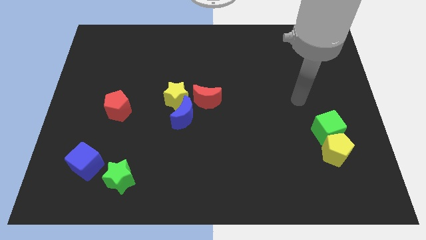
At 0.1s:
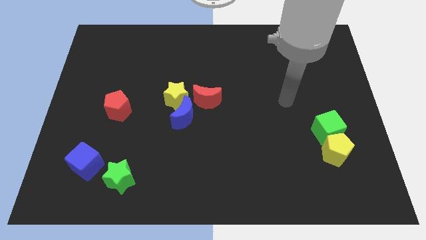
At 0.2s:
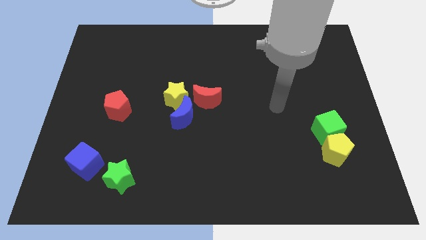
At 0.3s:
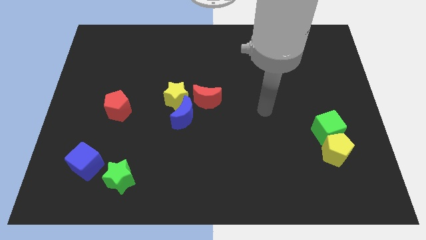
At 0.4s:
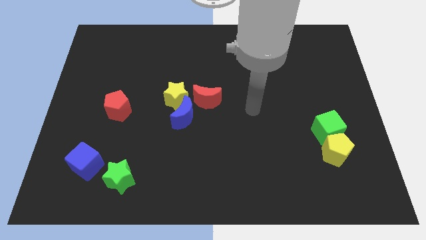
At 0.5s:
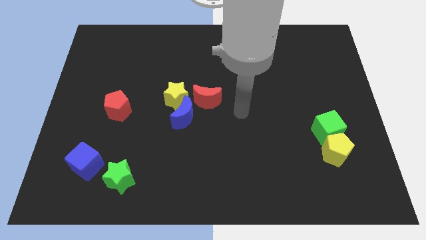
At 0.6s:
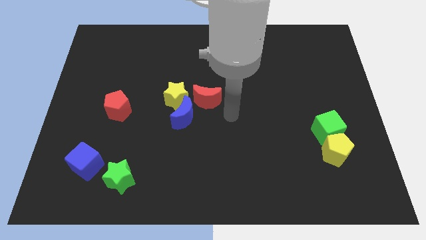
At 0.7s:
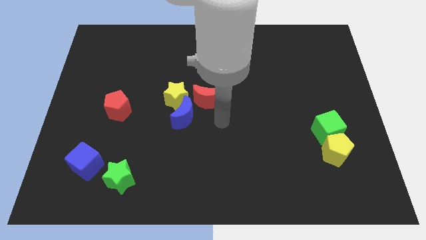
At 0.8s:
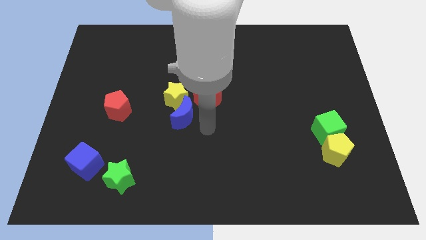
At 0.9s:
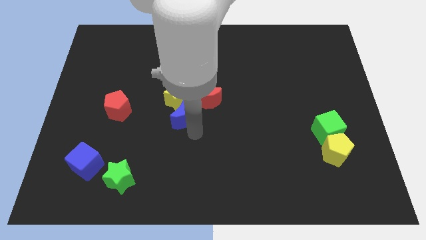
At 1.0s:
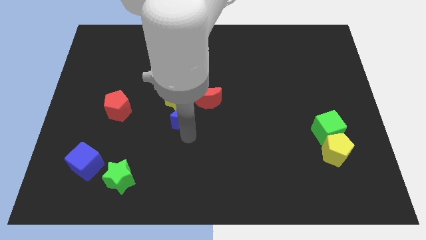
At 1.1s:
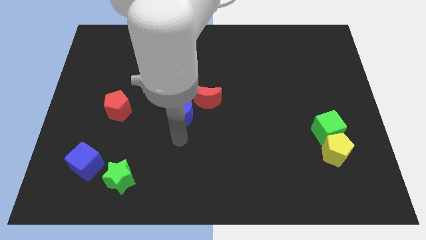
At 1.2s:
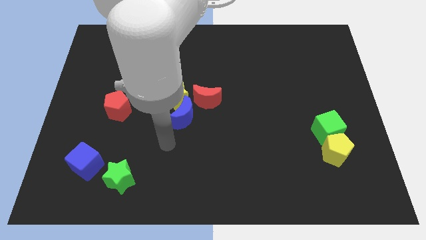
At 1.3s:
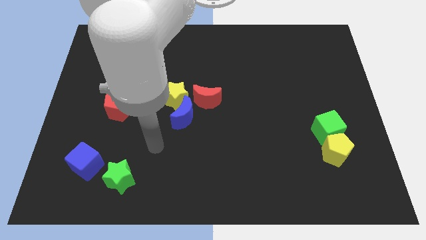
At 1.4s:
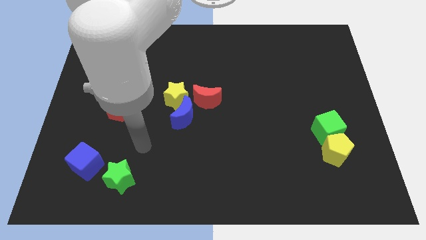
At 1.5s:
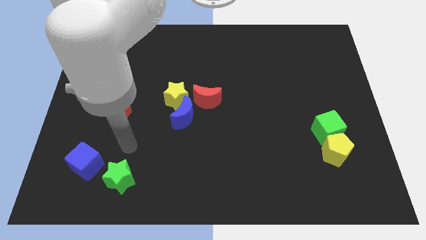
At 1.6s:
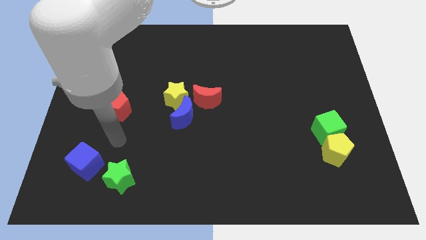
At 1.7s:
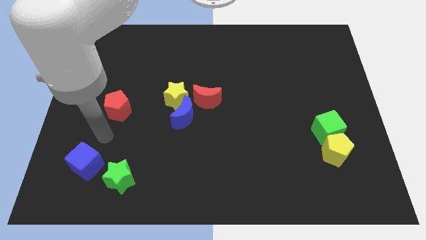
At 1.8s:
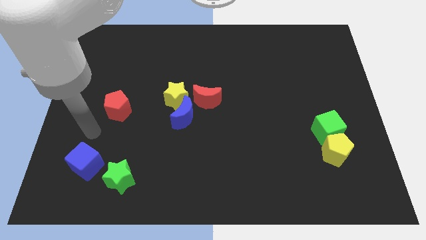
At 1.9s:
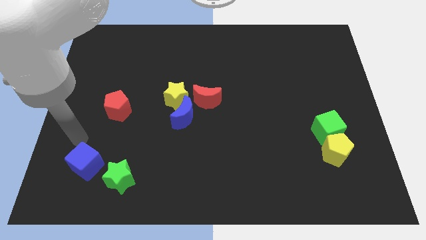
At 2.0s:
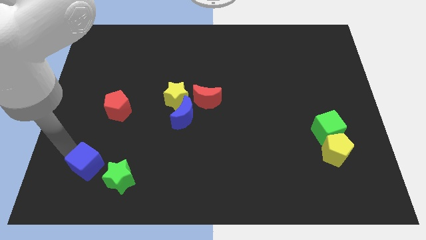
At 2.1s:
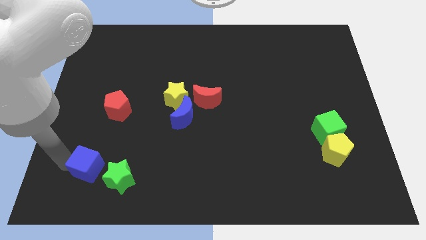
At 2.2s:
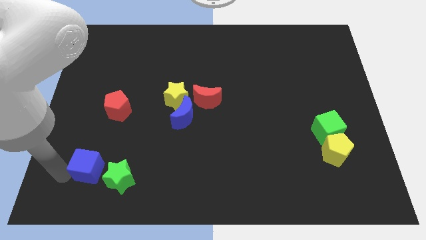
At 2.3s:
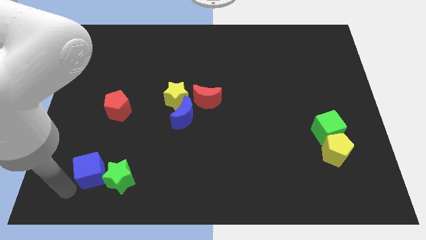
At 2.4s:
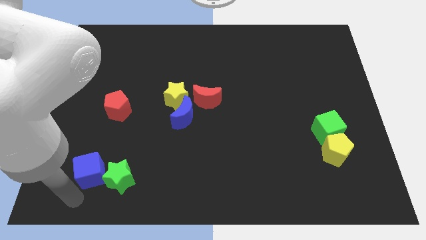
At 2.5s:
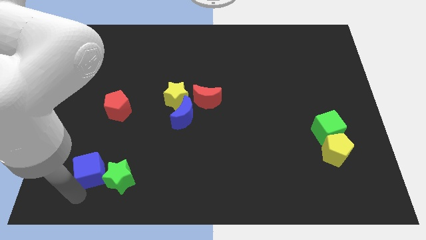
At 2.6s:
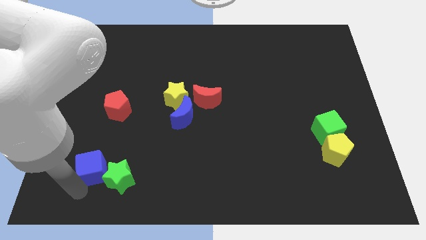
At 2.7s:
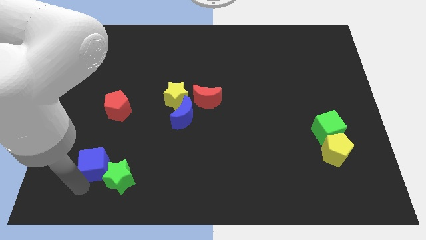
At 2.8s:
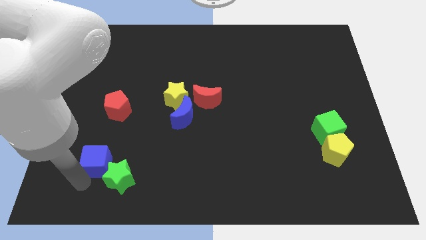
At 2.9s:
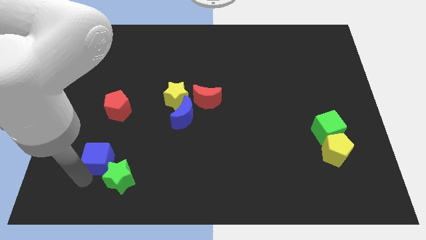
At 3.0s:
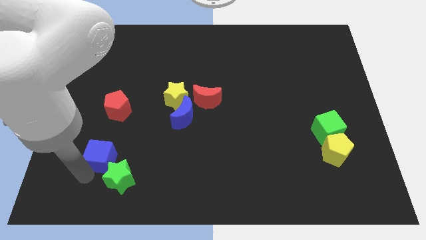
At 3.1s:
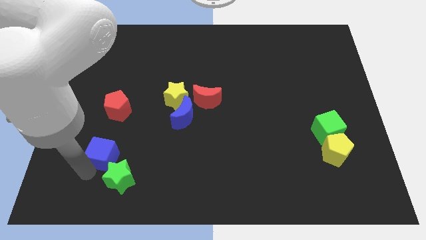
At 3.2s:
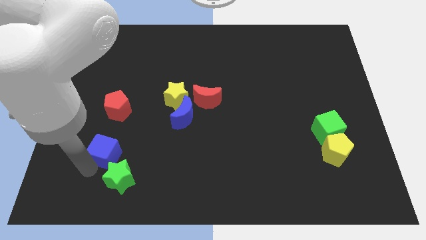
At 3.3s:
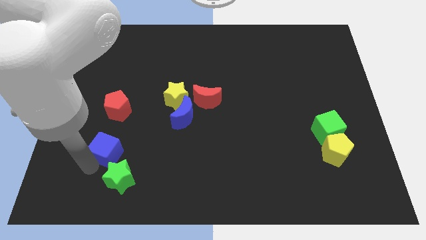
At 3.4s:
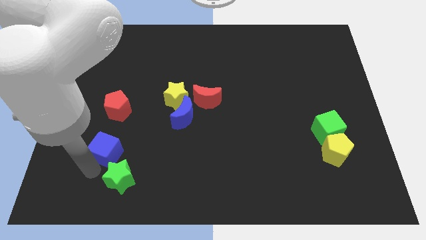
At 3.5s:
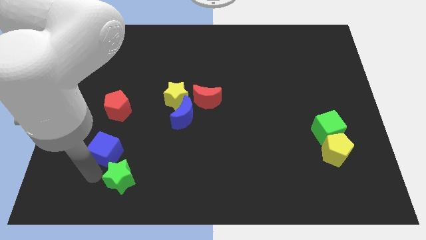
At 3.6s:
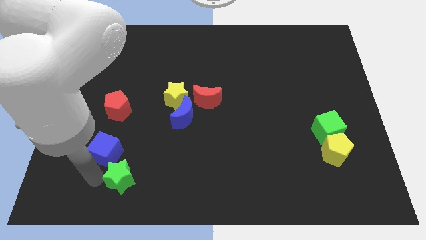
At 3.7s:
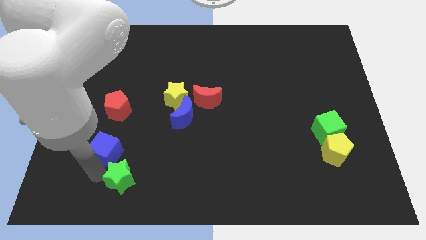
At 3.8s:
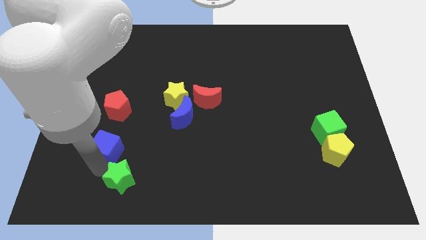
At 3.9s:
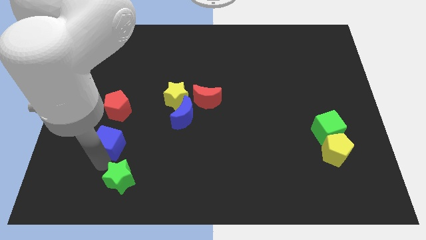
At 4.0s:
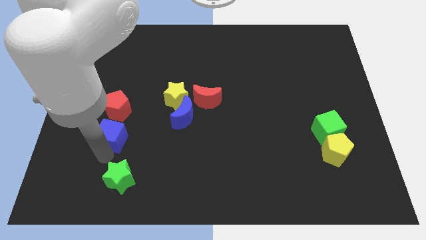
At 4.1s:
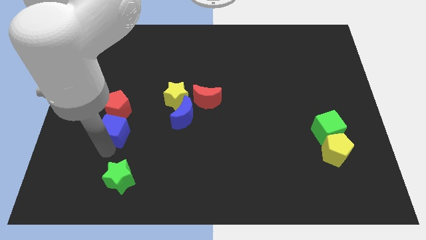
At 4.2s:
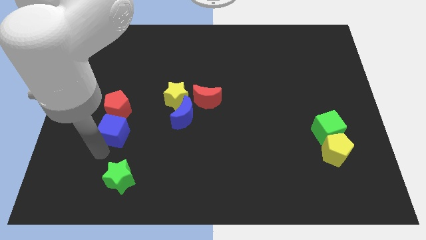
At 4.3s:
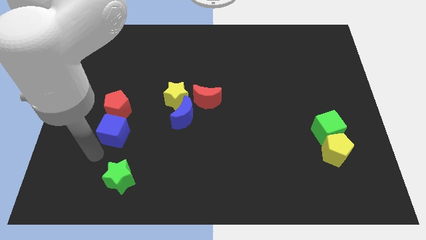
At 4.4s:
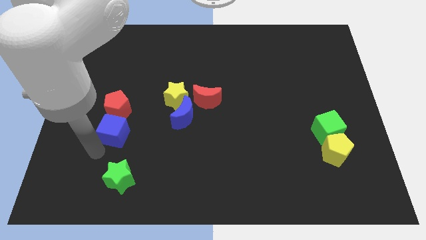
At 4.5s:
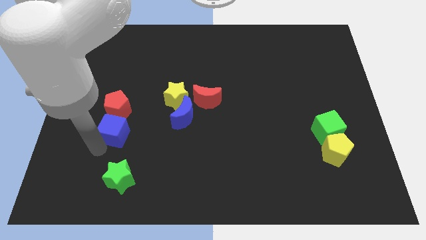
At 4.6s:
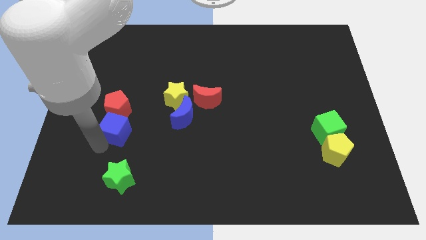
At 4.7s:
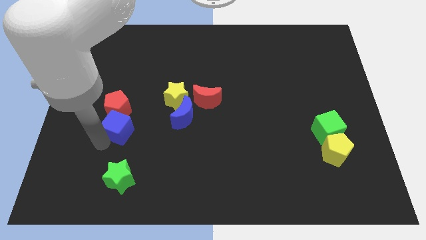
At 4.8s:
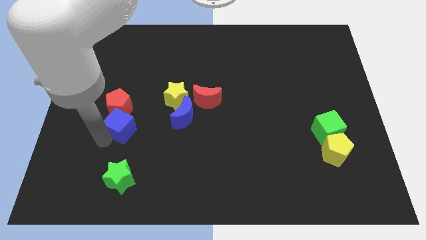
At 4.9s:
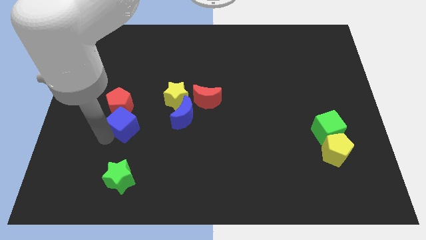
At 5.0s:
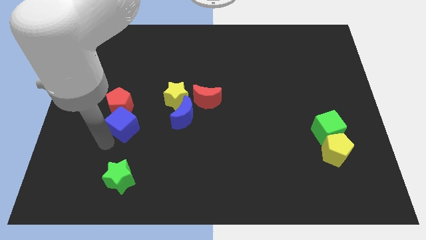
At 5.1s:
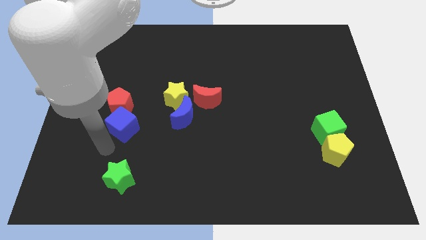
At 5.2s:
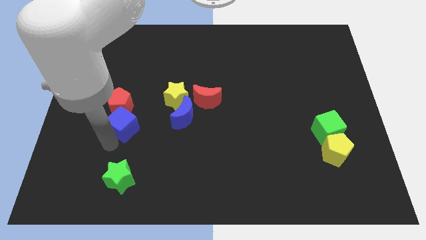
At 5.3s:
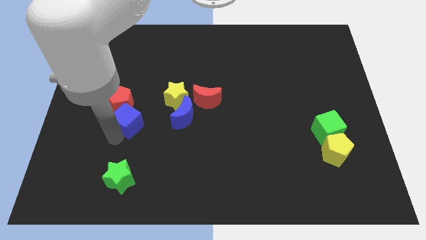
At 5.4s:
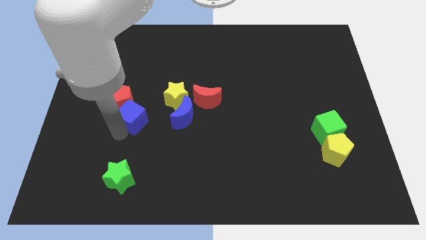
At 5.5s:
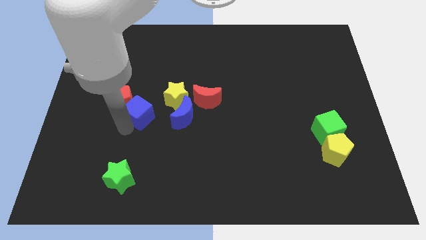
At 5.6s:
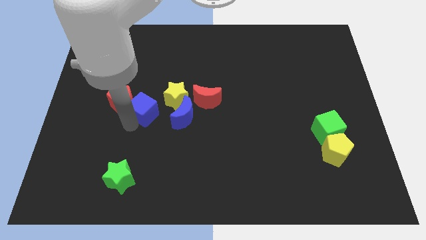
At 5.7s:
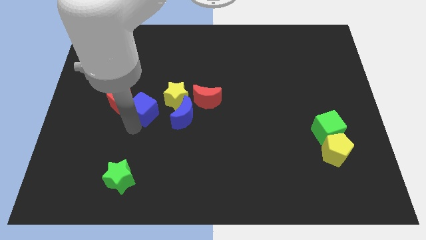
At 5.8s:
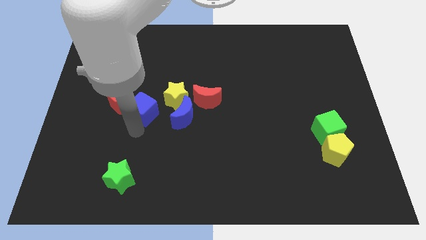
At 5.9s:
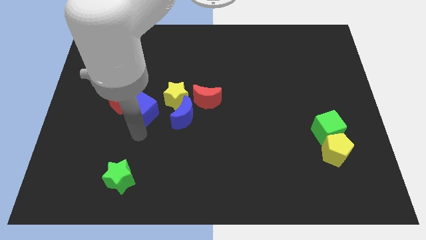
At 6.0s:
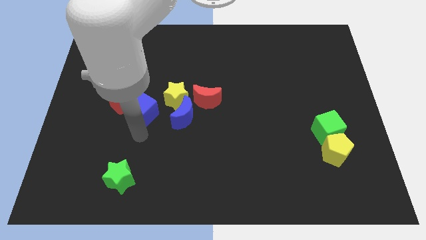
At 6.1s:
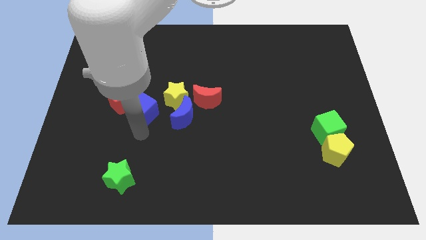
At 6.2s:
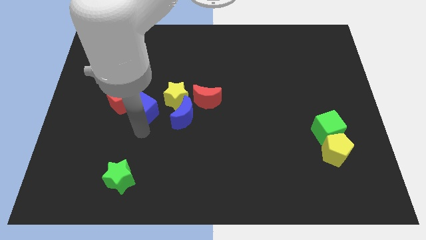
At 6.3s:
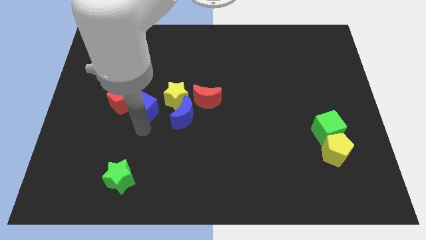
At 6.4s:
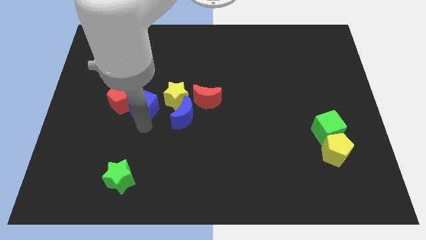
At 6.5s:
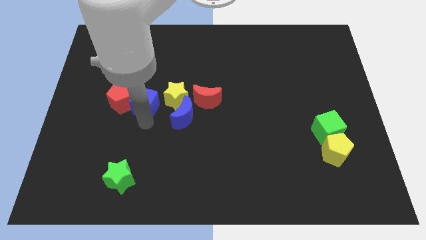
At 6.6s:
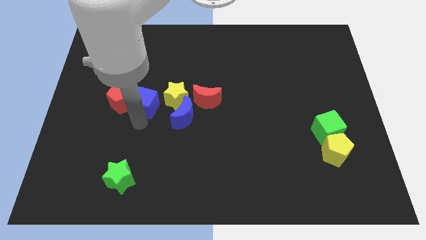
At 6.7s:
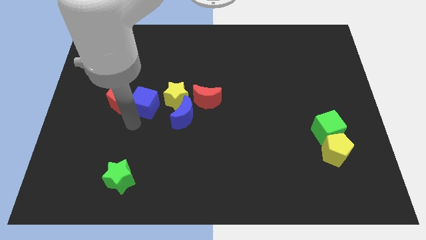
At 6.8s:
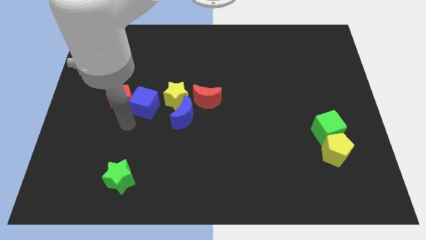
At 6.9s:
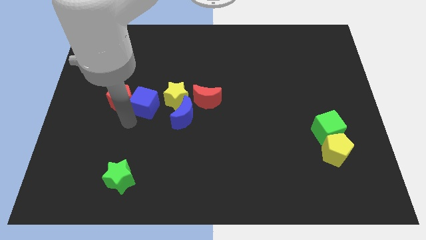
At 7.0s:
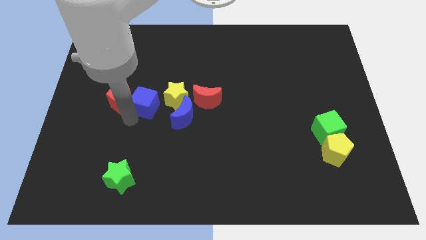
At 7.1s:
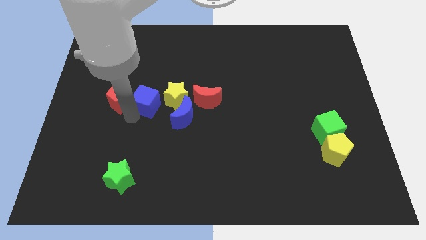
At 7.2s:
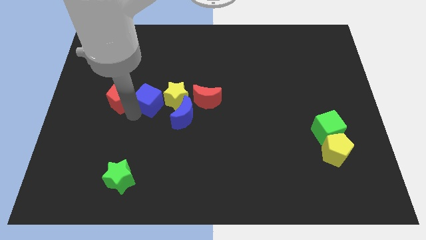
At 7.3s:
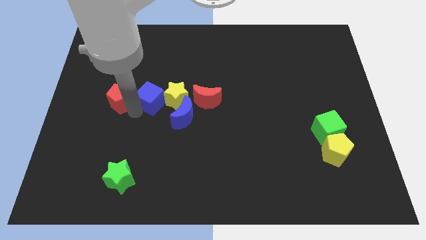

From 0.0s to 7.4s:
move the blue cube up and then right

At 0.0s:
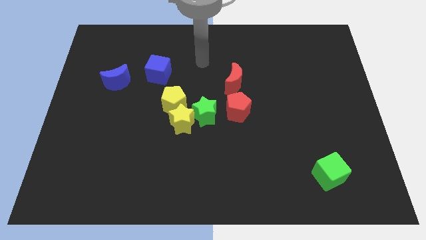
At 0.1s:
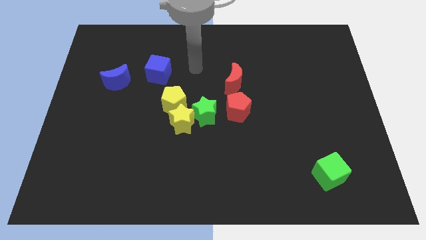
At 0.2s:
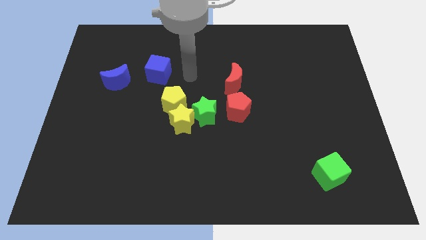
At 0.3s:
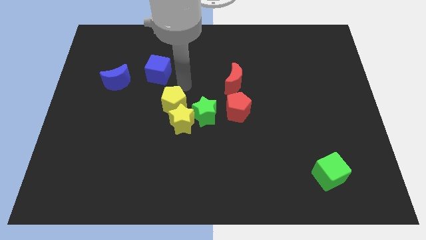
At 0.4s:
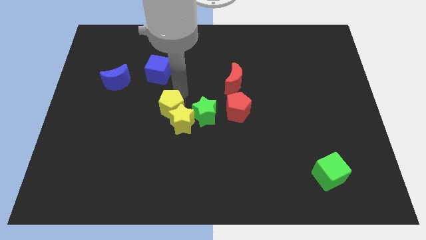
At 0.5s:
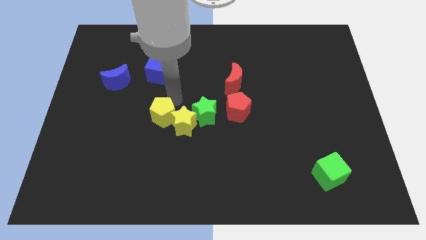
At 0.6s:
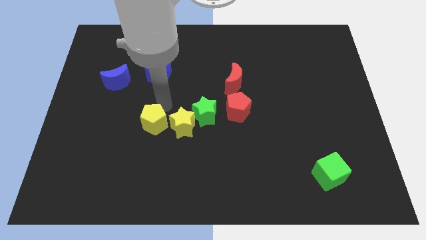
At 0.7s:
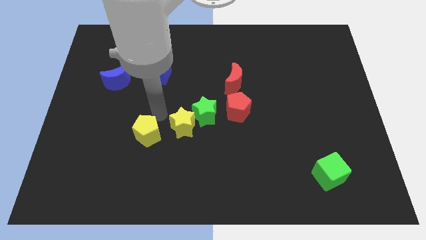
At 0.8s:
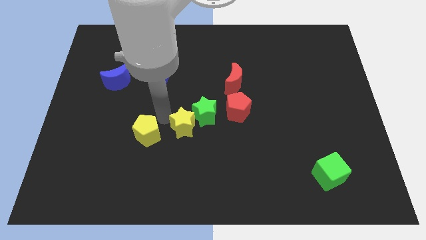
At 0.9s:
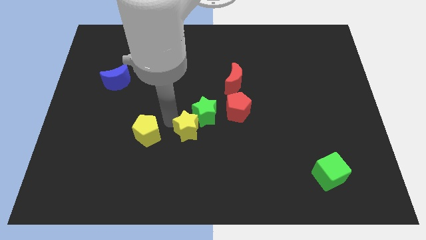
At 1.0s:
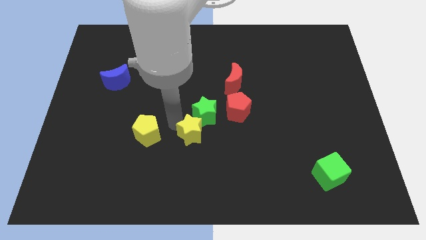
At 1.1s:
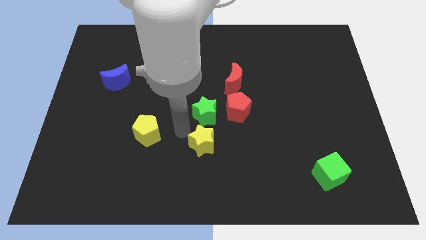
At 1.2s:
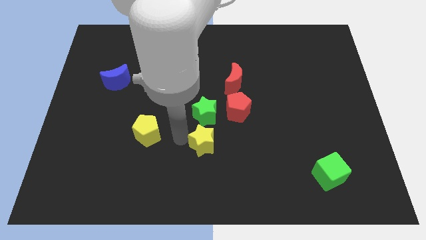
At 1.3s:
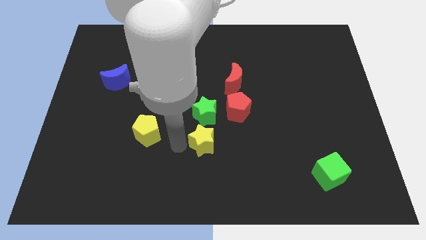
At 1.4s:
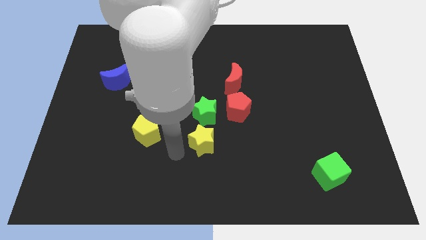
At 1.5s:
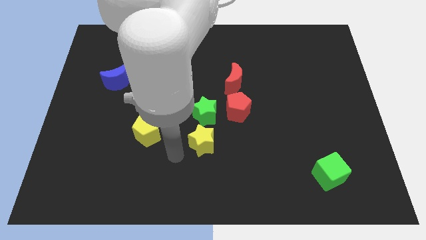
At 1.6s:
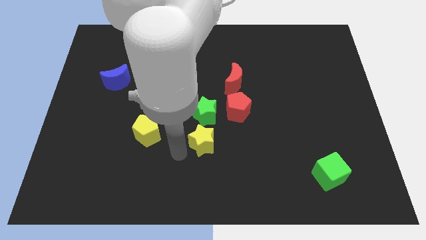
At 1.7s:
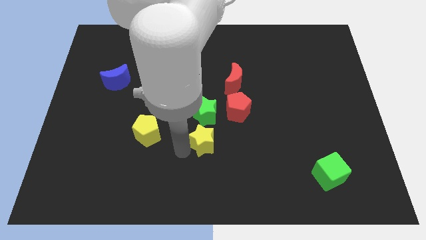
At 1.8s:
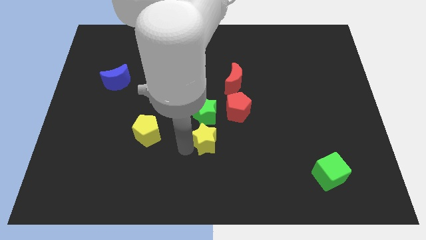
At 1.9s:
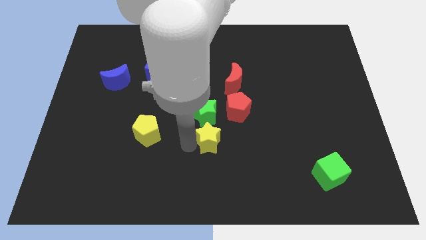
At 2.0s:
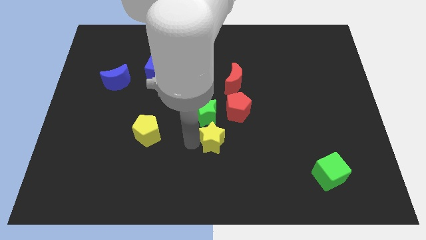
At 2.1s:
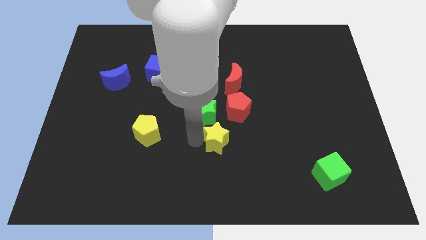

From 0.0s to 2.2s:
move the yellow star slightly to the right
